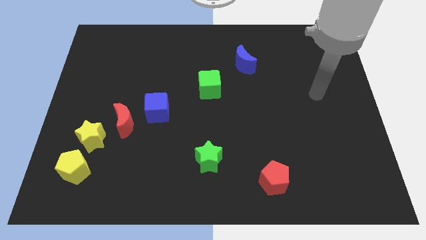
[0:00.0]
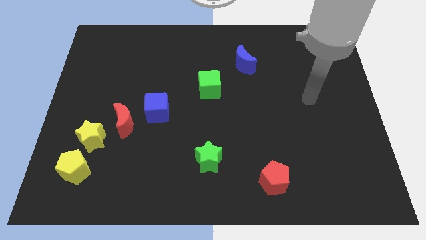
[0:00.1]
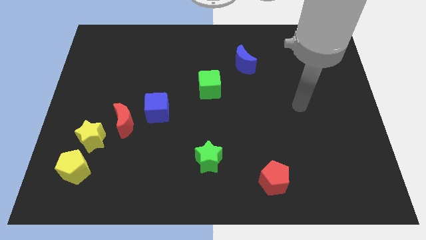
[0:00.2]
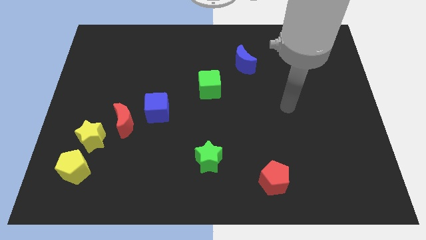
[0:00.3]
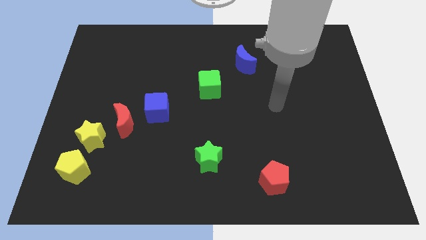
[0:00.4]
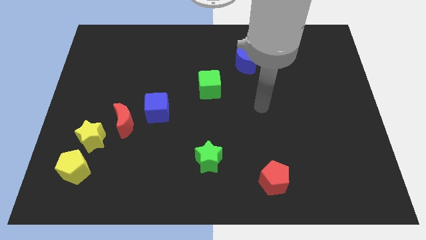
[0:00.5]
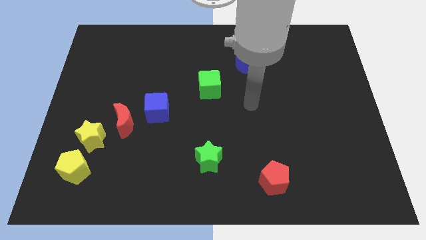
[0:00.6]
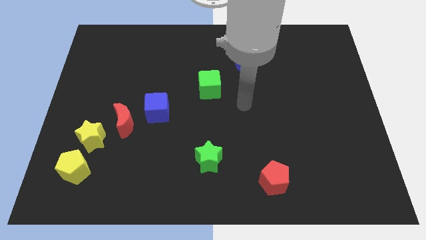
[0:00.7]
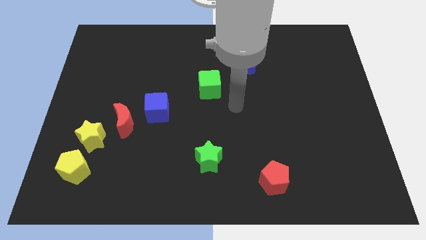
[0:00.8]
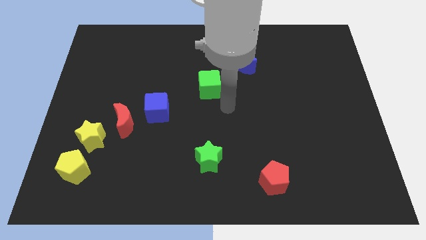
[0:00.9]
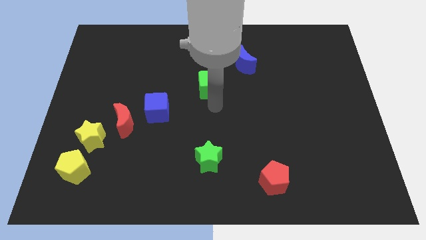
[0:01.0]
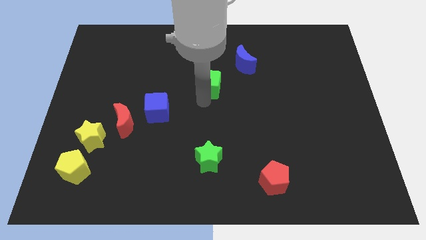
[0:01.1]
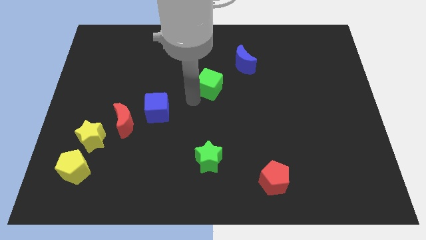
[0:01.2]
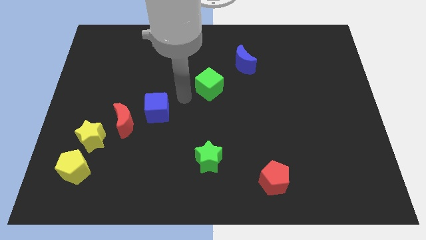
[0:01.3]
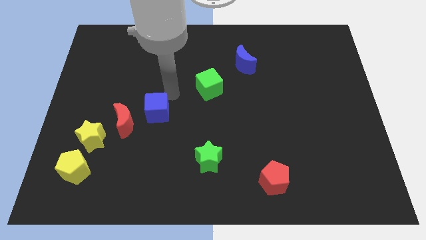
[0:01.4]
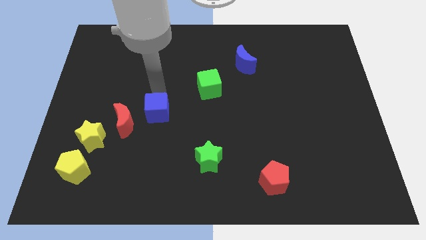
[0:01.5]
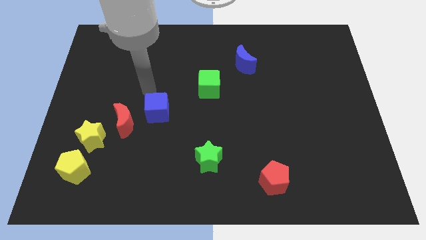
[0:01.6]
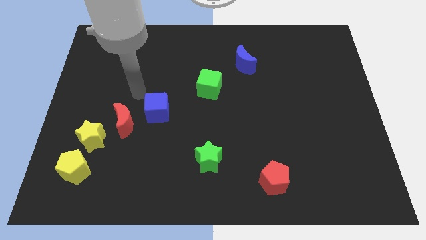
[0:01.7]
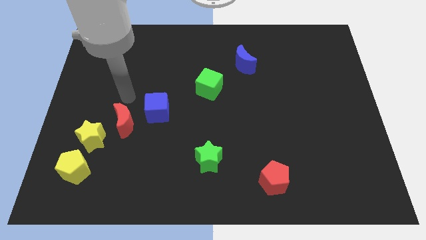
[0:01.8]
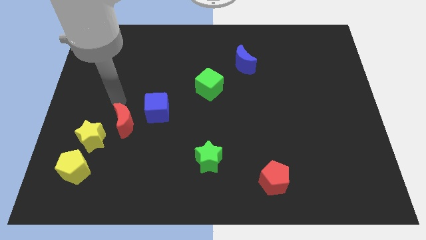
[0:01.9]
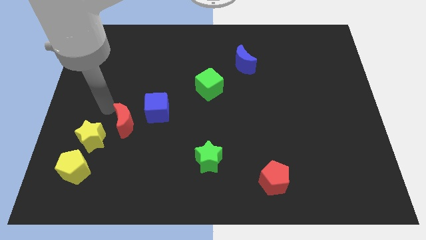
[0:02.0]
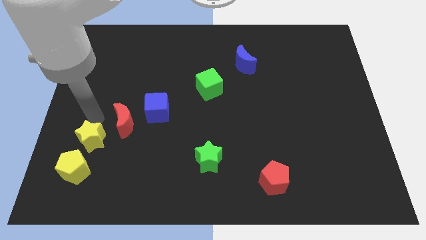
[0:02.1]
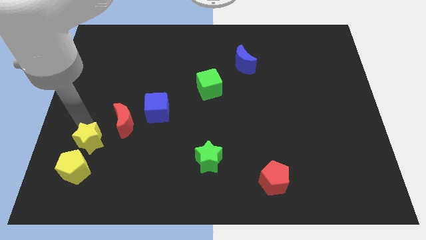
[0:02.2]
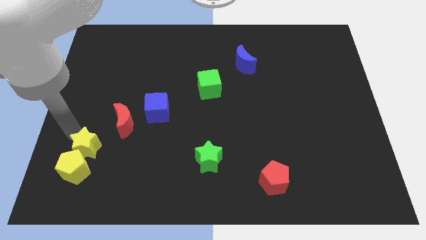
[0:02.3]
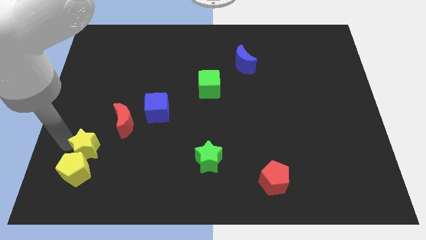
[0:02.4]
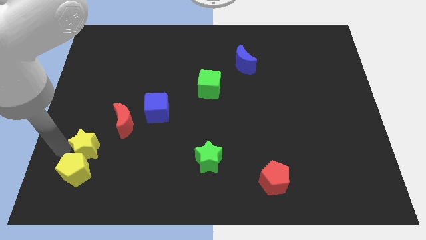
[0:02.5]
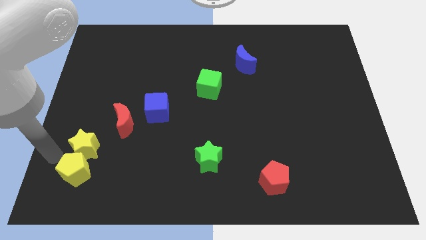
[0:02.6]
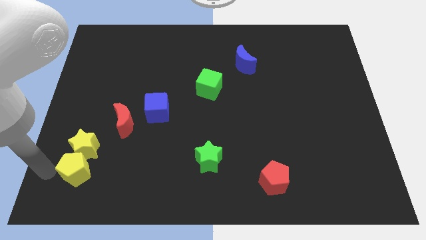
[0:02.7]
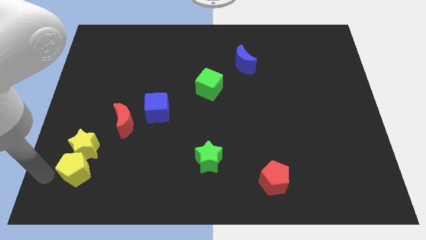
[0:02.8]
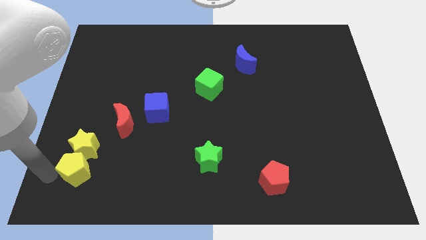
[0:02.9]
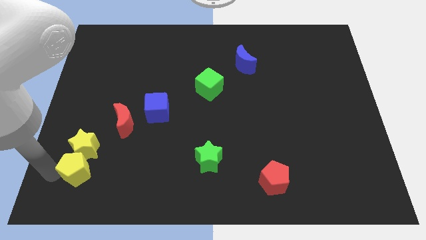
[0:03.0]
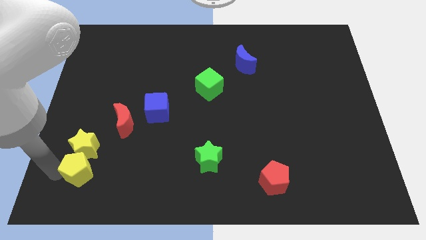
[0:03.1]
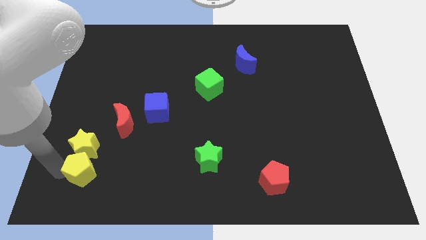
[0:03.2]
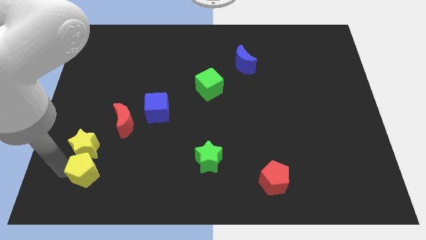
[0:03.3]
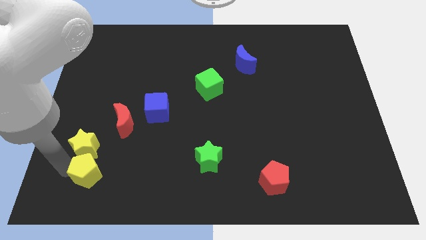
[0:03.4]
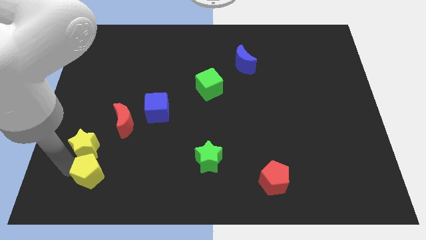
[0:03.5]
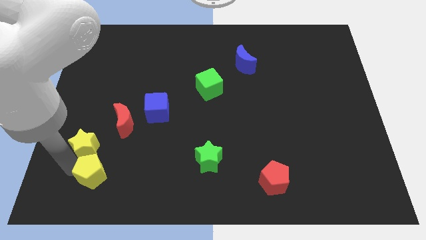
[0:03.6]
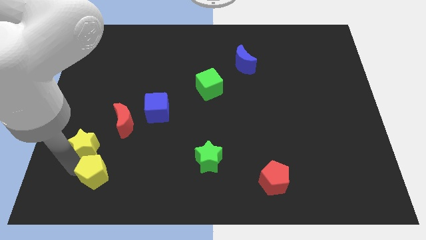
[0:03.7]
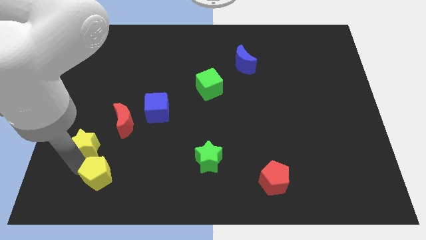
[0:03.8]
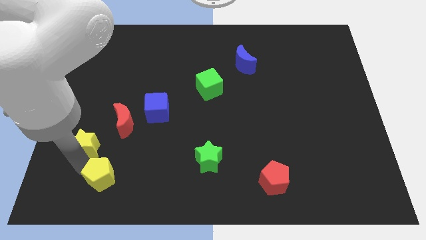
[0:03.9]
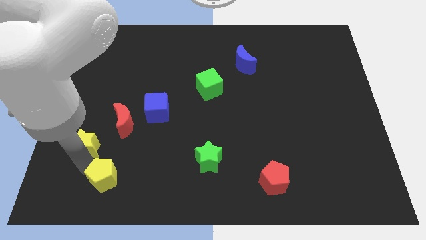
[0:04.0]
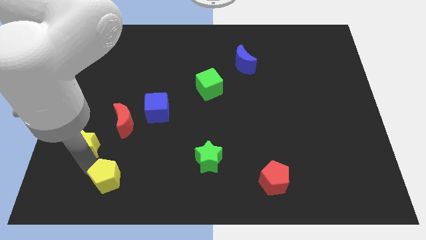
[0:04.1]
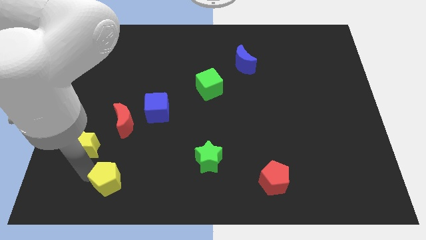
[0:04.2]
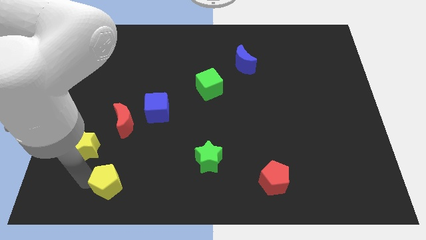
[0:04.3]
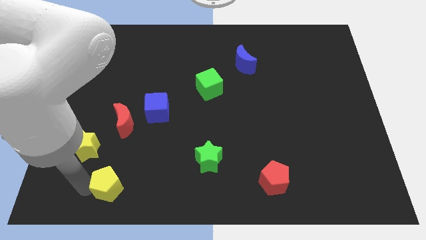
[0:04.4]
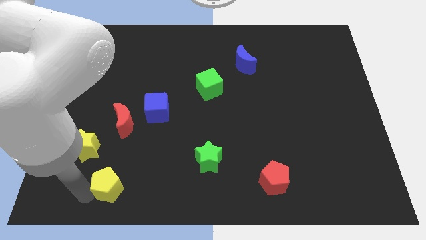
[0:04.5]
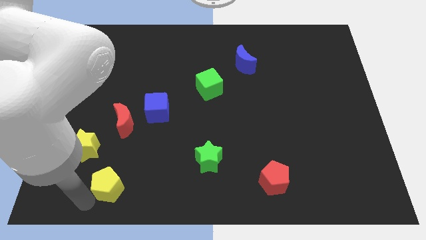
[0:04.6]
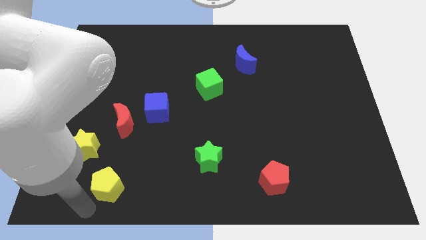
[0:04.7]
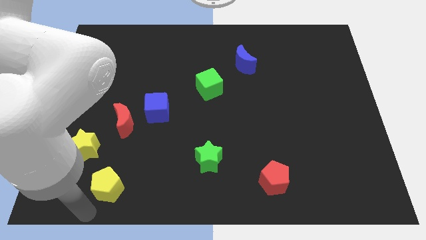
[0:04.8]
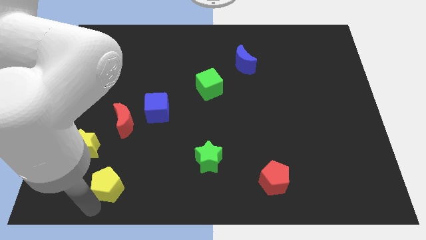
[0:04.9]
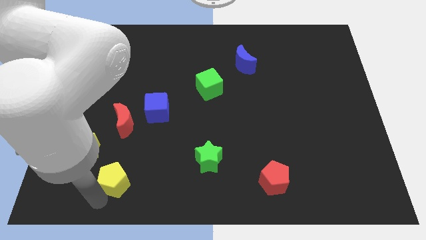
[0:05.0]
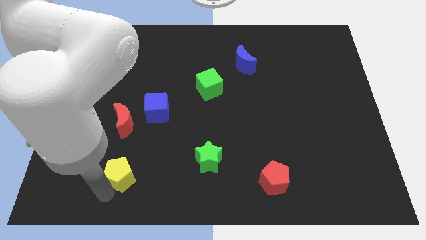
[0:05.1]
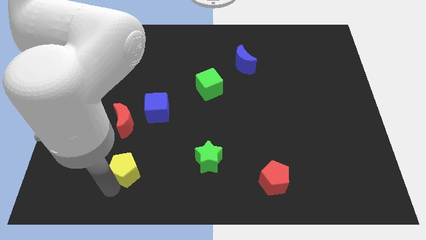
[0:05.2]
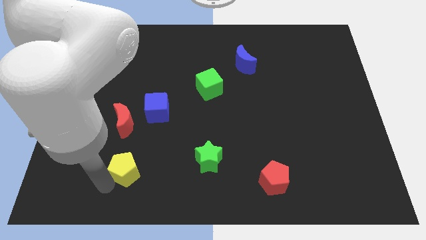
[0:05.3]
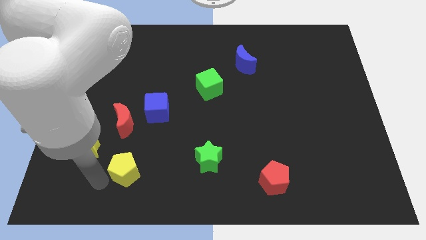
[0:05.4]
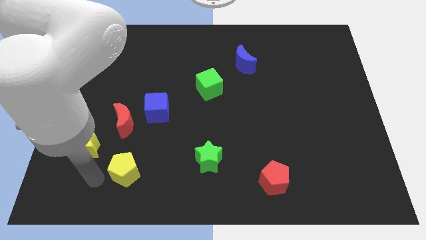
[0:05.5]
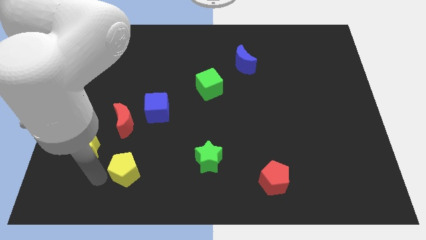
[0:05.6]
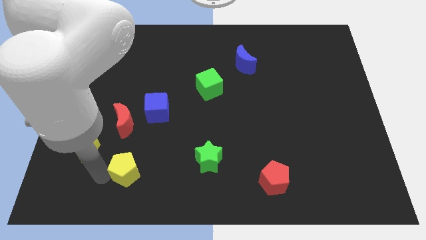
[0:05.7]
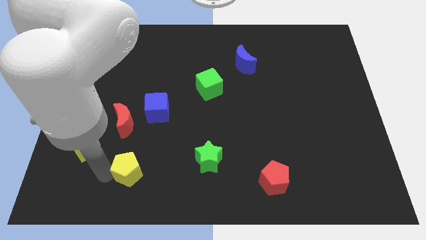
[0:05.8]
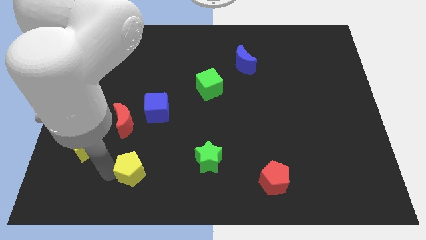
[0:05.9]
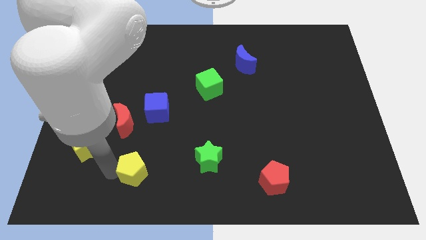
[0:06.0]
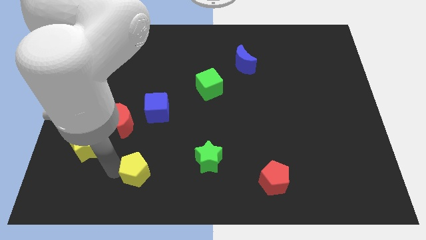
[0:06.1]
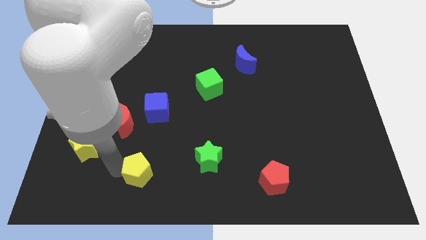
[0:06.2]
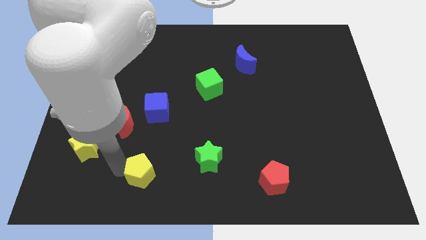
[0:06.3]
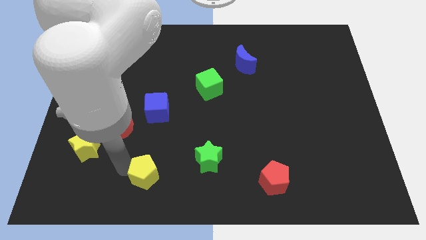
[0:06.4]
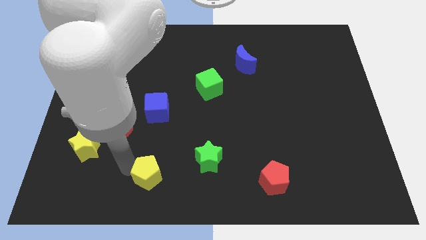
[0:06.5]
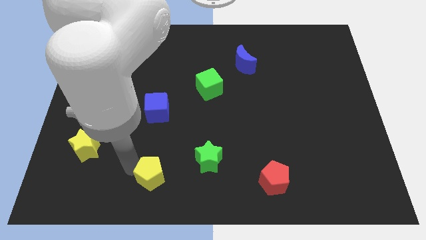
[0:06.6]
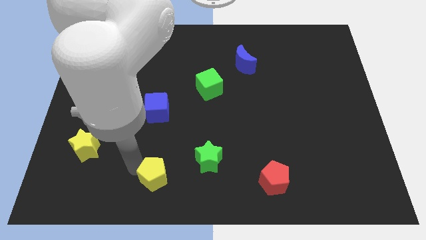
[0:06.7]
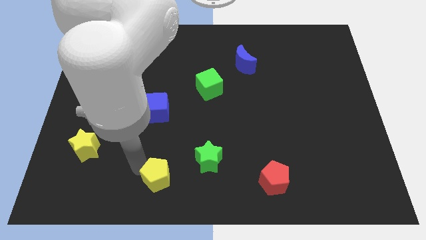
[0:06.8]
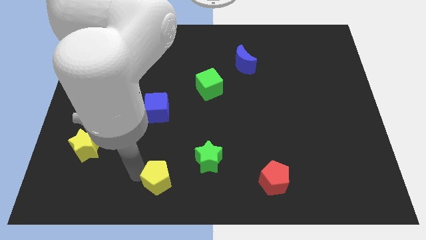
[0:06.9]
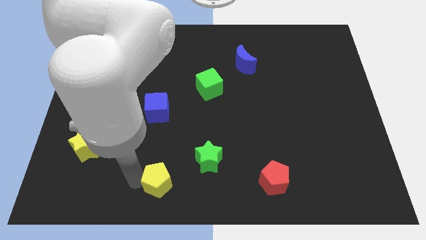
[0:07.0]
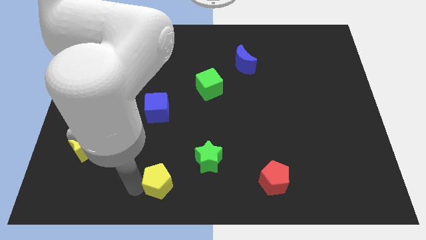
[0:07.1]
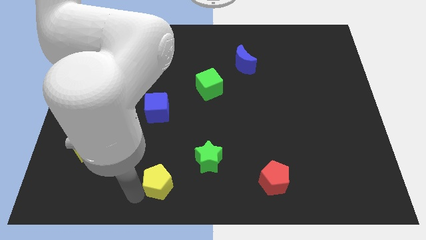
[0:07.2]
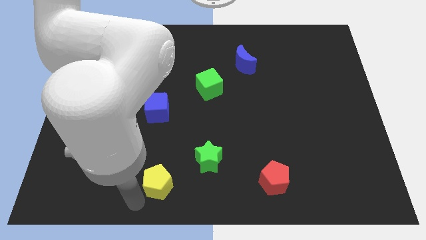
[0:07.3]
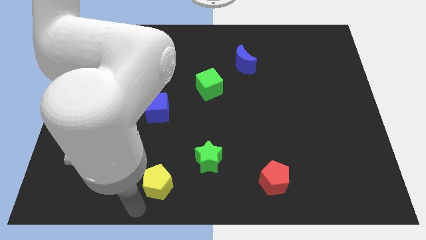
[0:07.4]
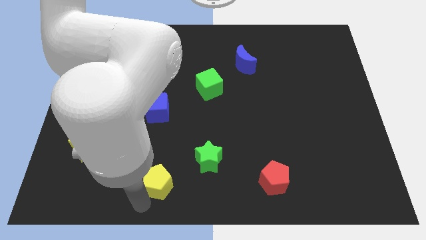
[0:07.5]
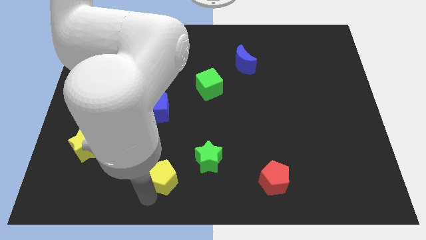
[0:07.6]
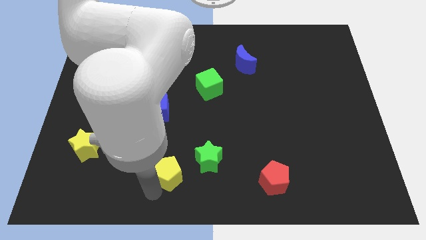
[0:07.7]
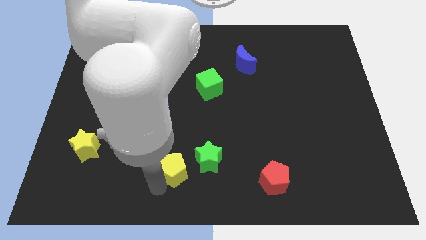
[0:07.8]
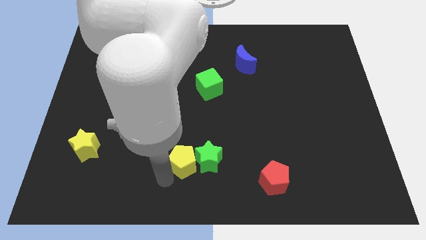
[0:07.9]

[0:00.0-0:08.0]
move the yellow pentagon next to the green star
